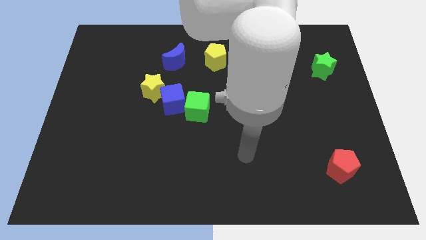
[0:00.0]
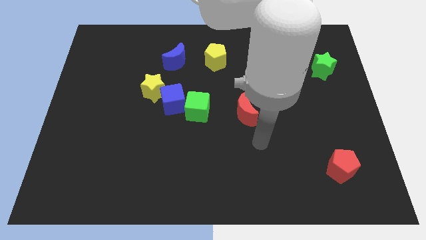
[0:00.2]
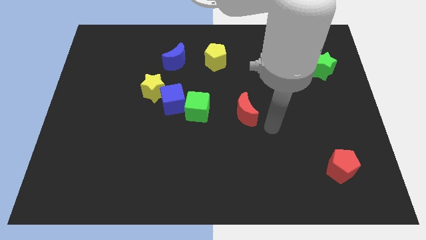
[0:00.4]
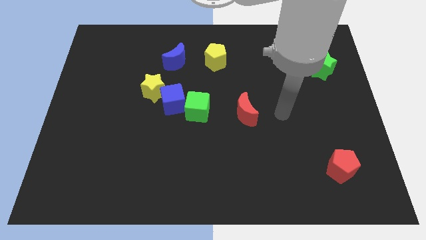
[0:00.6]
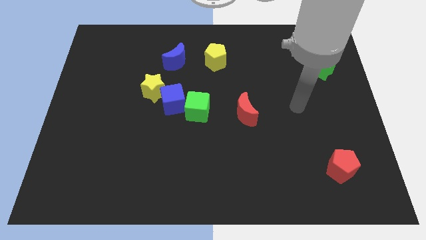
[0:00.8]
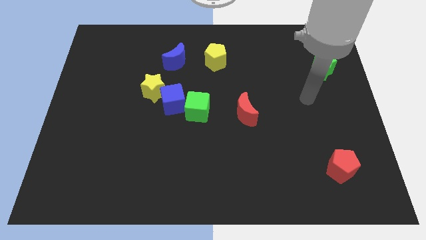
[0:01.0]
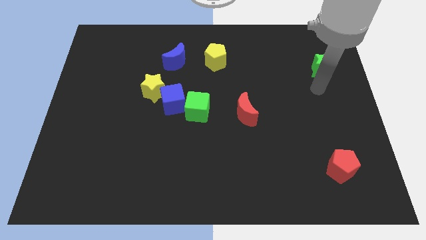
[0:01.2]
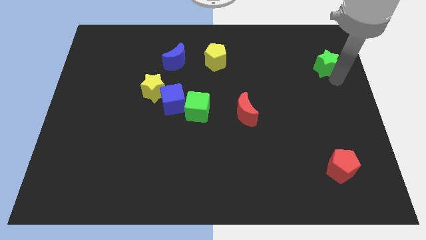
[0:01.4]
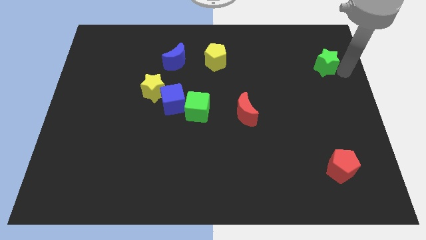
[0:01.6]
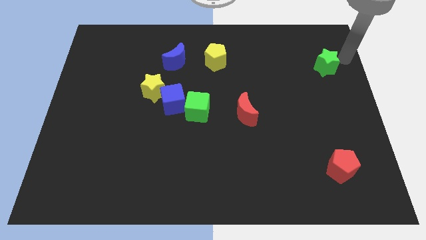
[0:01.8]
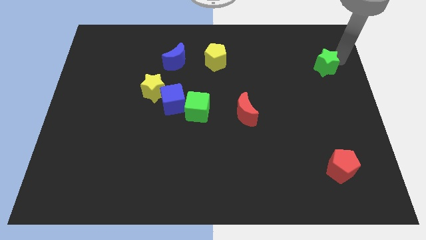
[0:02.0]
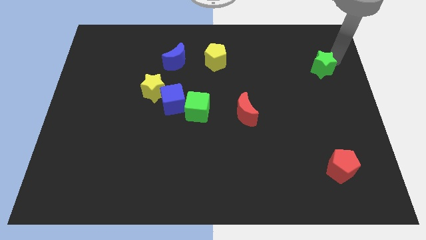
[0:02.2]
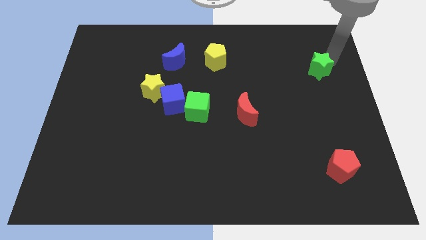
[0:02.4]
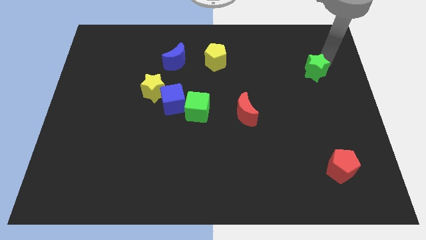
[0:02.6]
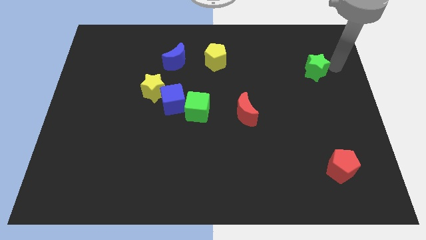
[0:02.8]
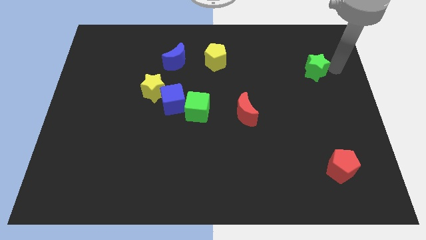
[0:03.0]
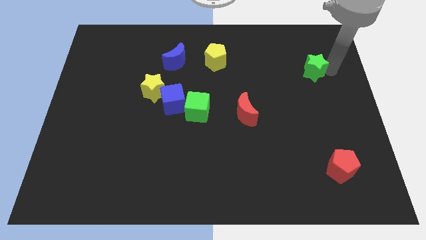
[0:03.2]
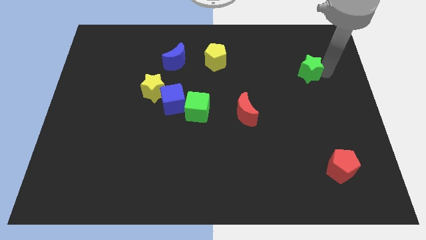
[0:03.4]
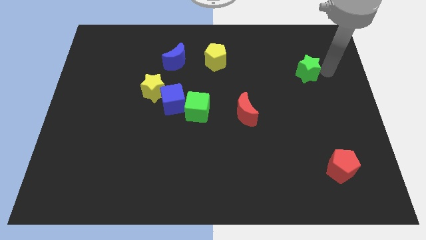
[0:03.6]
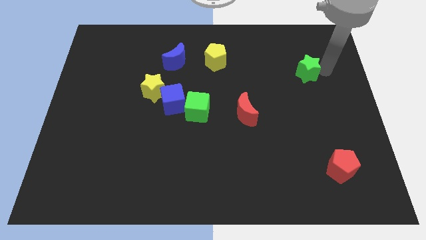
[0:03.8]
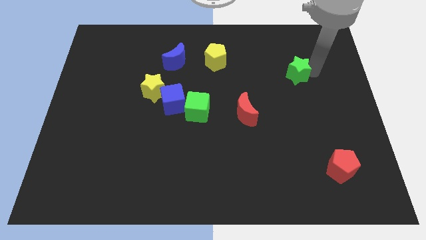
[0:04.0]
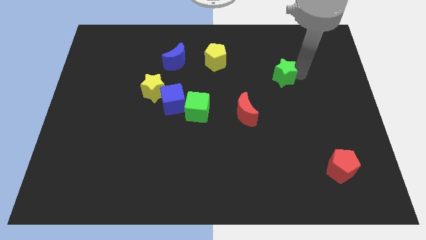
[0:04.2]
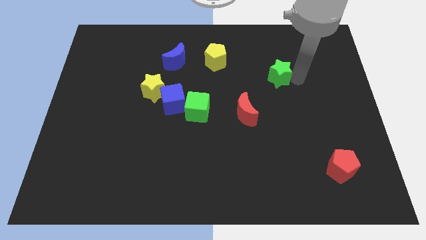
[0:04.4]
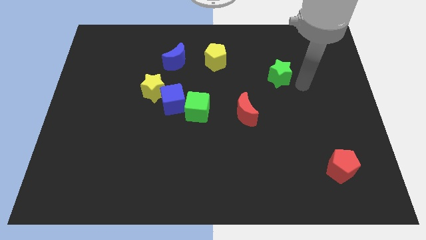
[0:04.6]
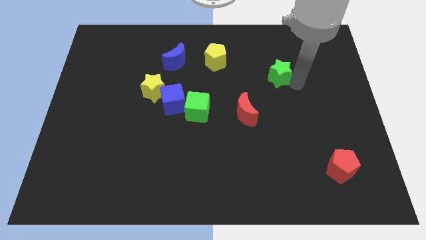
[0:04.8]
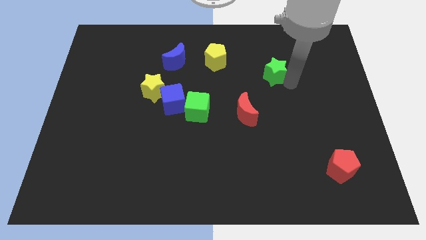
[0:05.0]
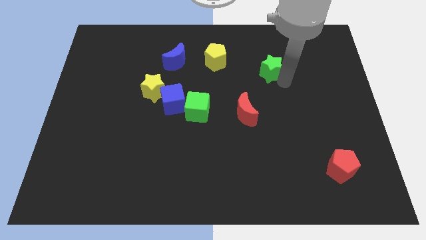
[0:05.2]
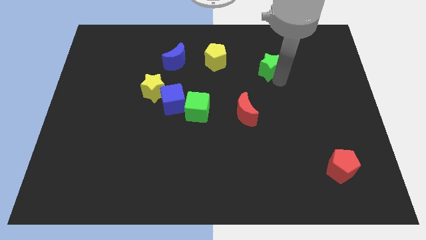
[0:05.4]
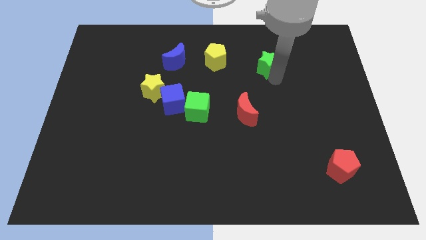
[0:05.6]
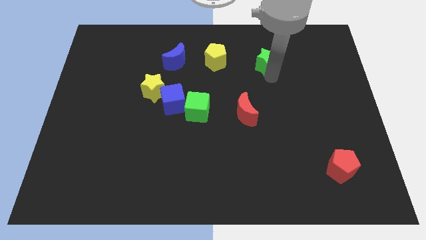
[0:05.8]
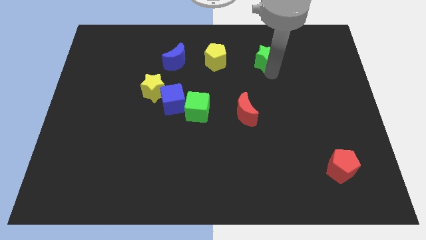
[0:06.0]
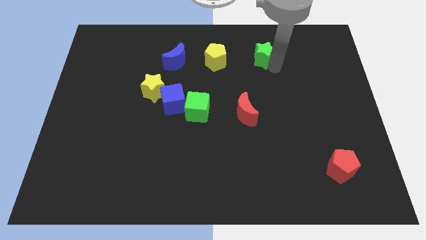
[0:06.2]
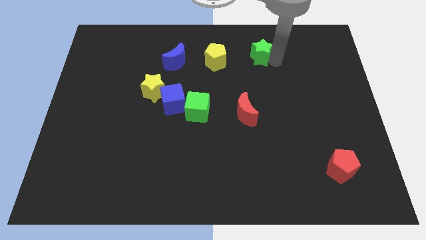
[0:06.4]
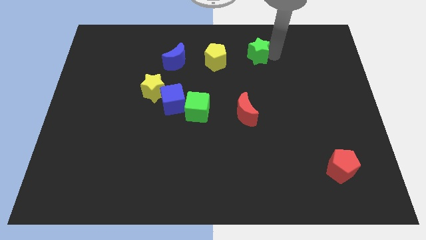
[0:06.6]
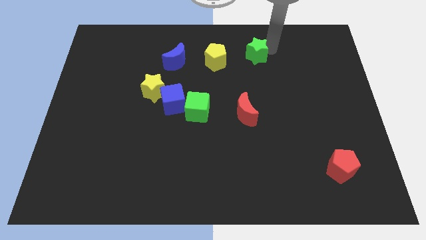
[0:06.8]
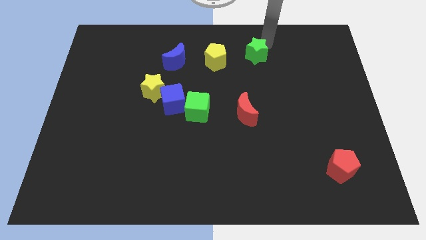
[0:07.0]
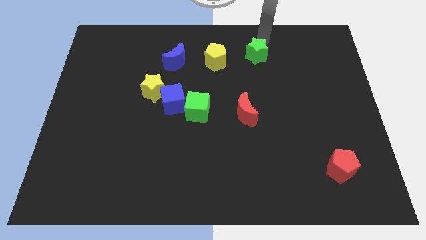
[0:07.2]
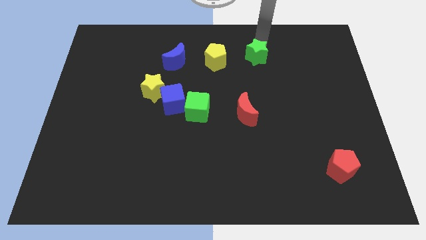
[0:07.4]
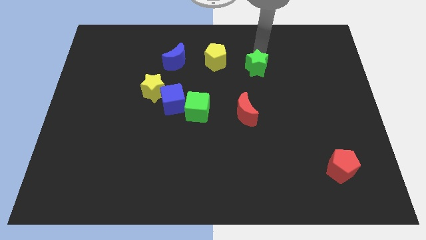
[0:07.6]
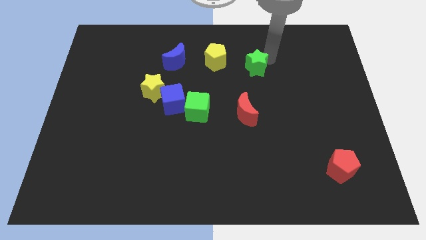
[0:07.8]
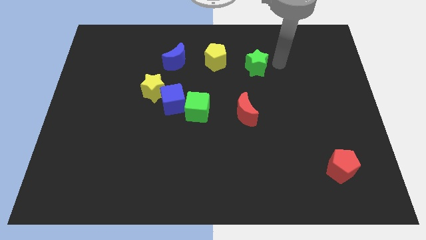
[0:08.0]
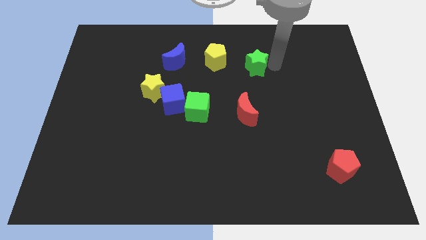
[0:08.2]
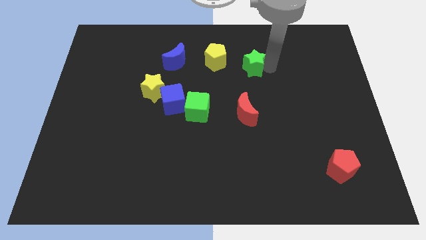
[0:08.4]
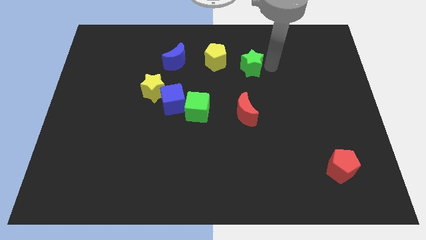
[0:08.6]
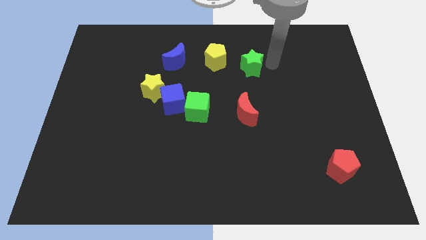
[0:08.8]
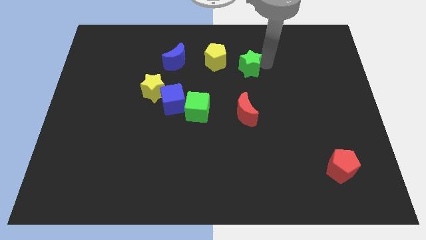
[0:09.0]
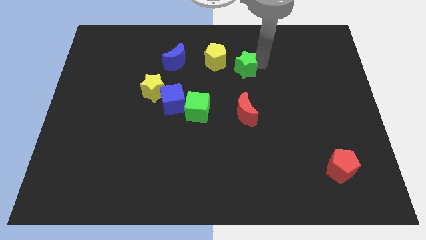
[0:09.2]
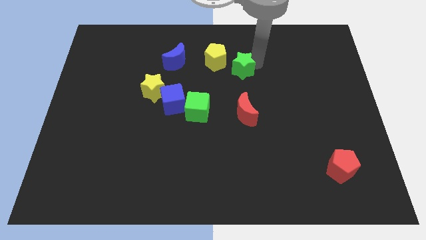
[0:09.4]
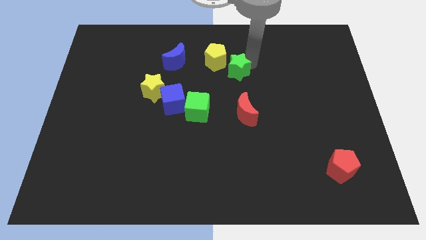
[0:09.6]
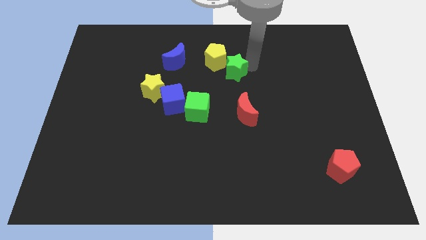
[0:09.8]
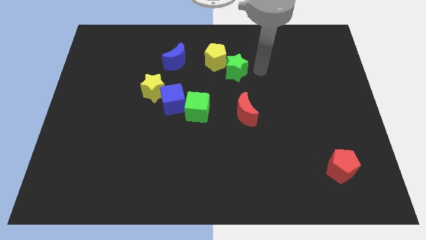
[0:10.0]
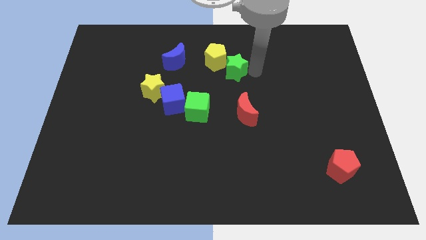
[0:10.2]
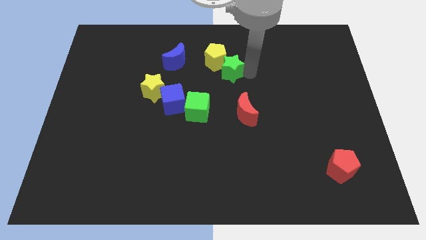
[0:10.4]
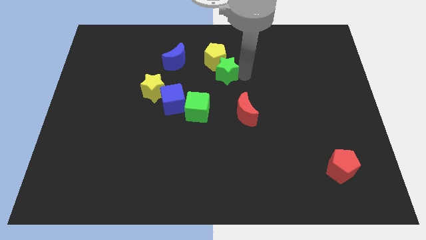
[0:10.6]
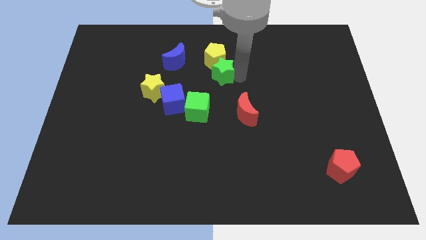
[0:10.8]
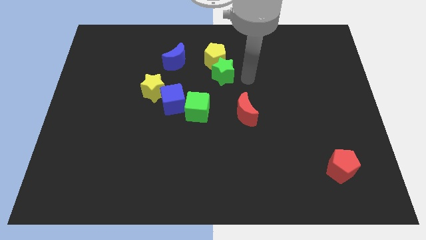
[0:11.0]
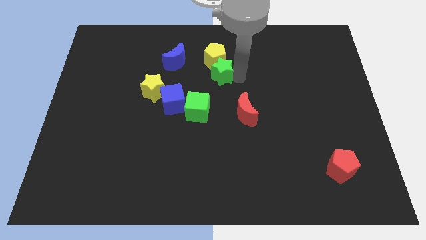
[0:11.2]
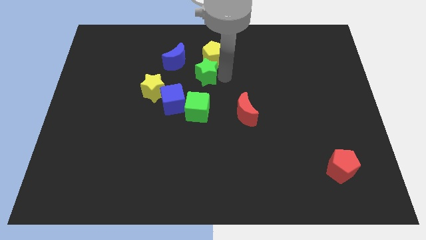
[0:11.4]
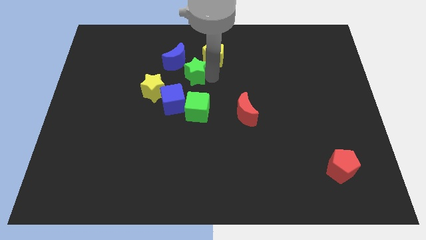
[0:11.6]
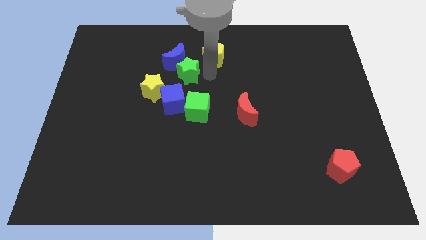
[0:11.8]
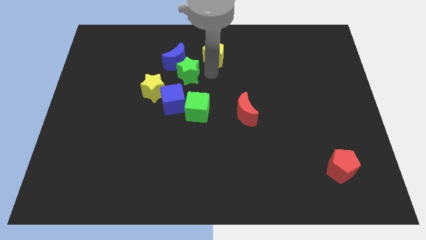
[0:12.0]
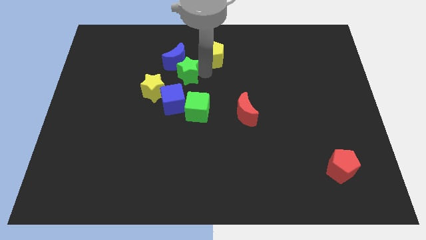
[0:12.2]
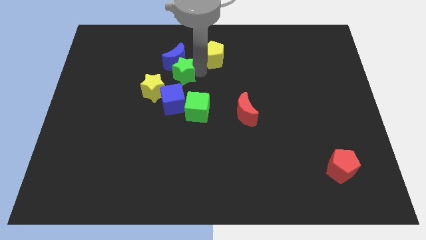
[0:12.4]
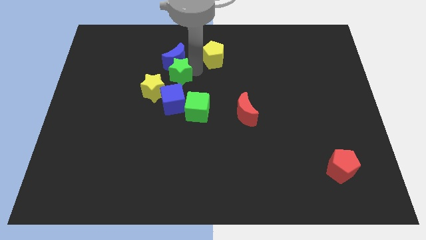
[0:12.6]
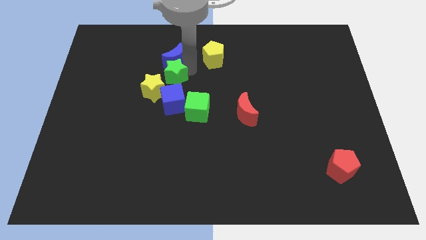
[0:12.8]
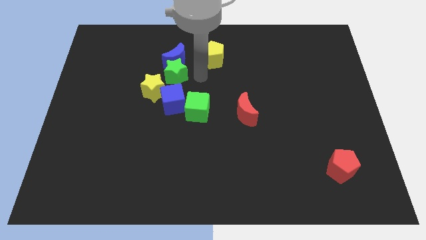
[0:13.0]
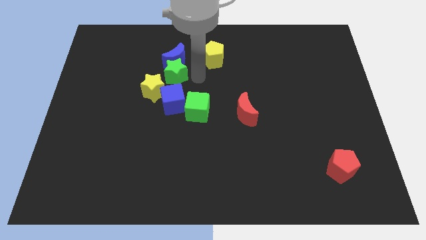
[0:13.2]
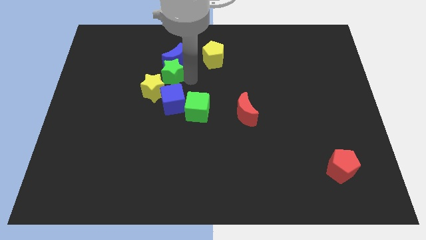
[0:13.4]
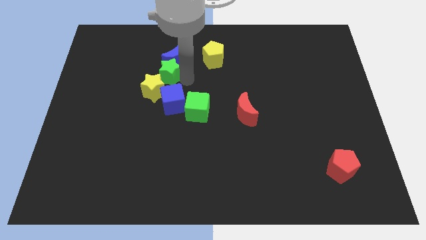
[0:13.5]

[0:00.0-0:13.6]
push the green star to the top left side of the blue cube

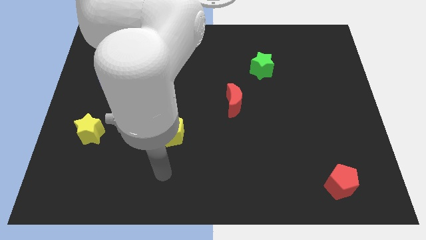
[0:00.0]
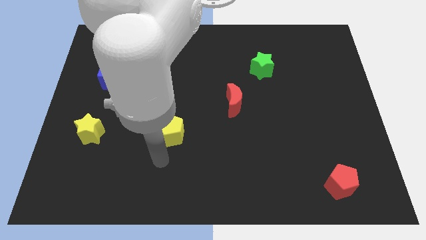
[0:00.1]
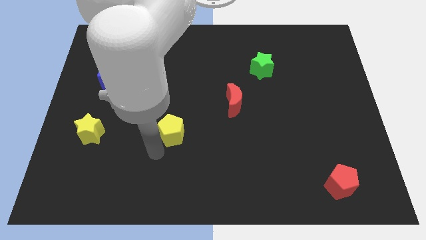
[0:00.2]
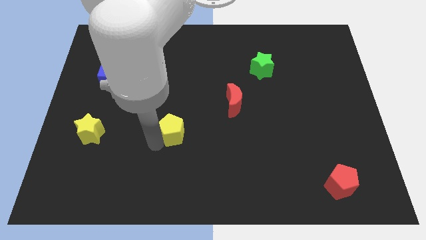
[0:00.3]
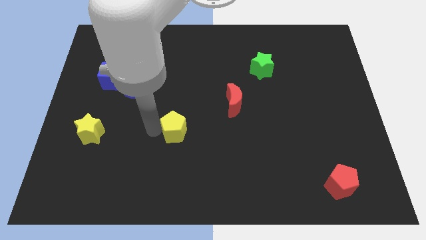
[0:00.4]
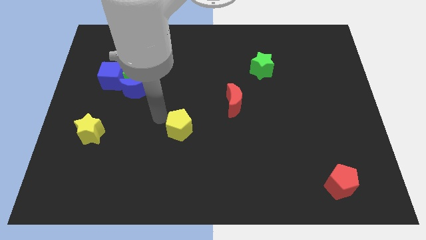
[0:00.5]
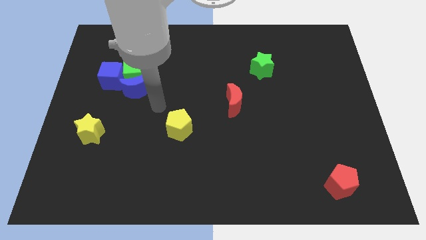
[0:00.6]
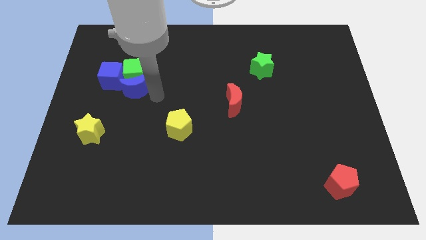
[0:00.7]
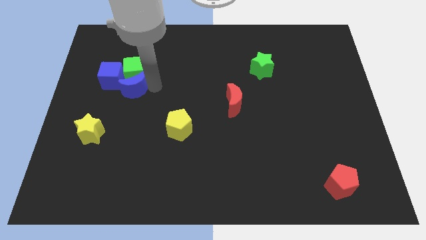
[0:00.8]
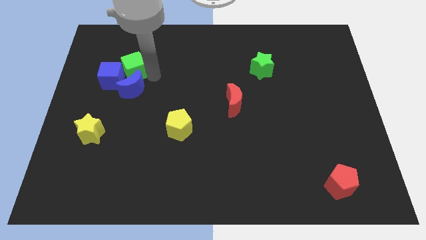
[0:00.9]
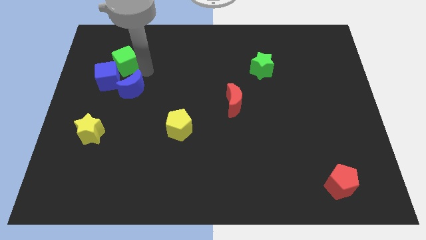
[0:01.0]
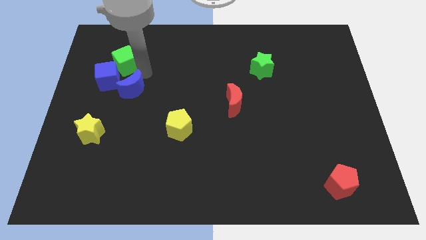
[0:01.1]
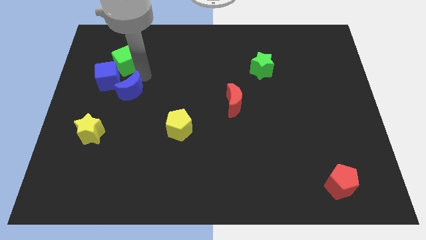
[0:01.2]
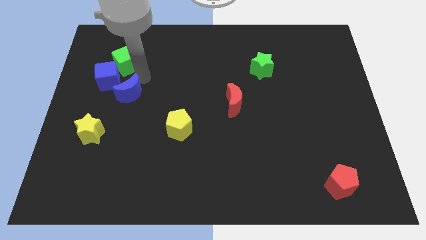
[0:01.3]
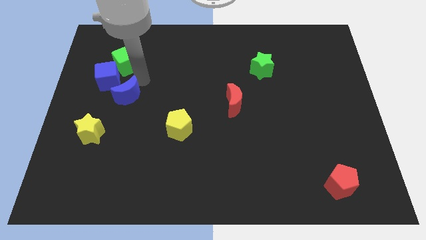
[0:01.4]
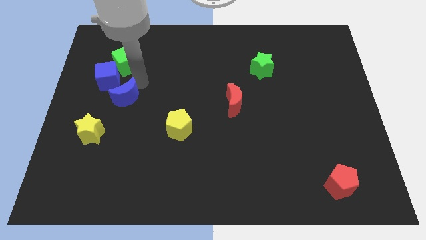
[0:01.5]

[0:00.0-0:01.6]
move the blue moon to the top right of the yellow star
